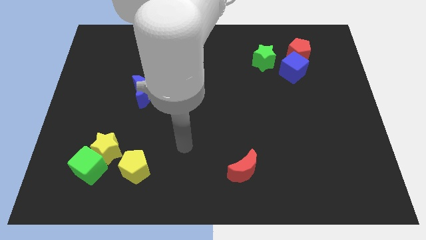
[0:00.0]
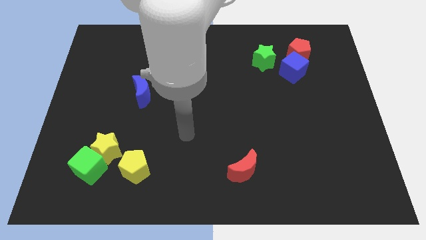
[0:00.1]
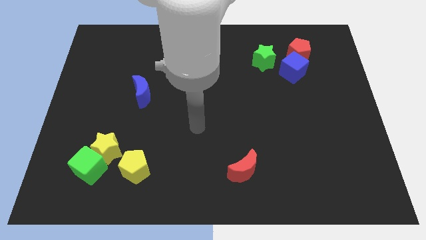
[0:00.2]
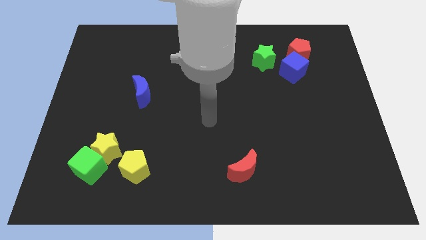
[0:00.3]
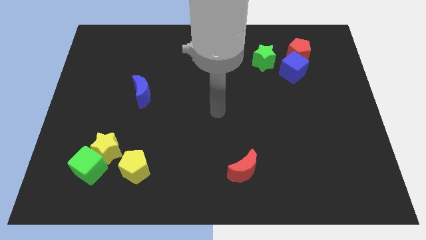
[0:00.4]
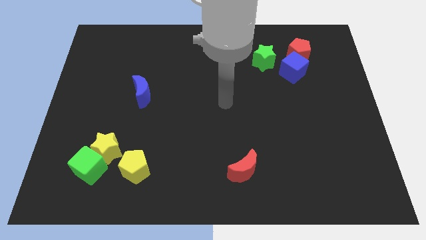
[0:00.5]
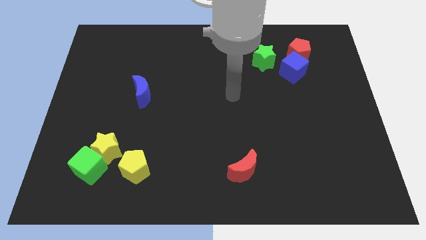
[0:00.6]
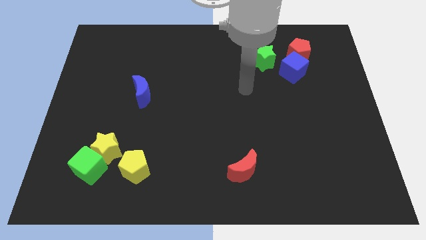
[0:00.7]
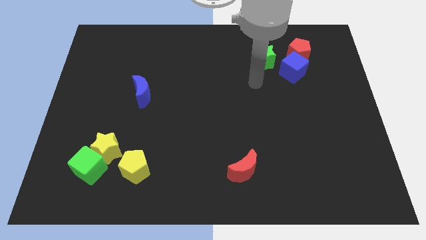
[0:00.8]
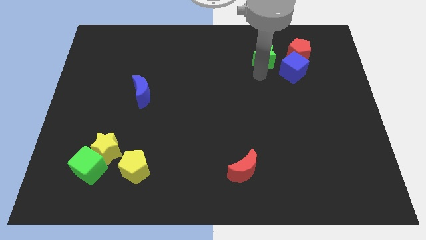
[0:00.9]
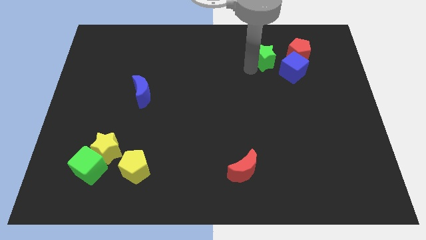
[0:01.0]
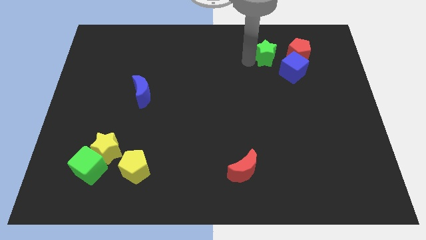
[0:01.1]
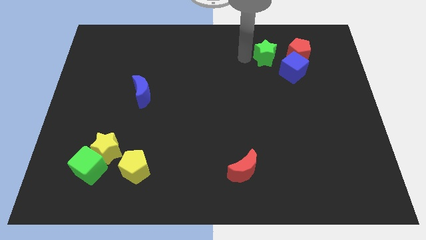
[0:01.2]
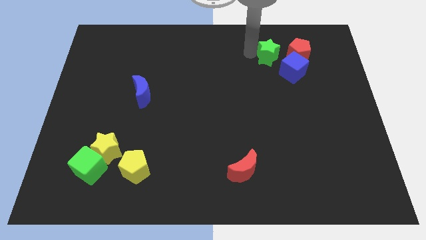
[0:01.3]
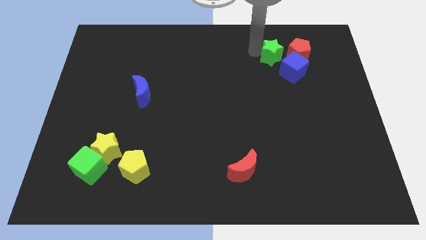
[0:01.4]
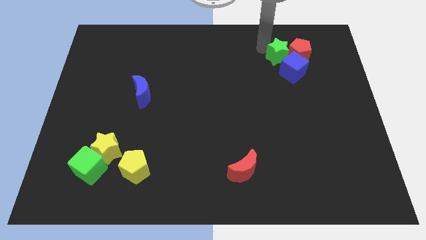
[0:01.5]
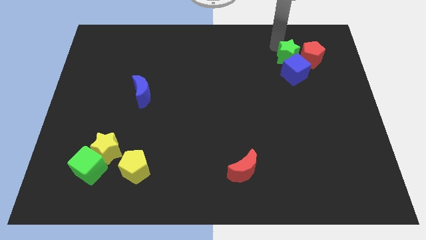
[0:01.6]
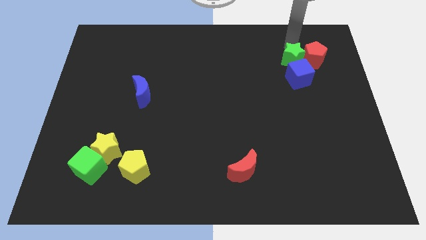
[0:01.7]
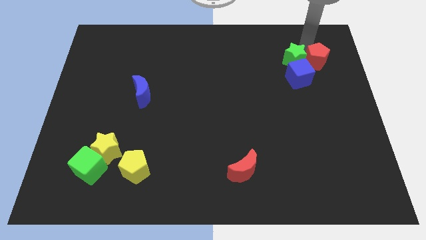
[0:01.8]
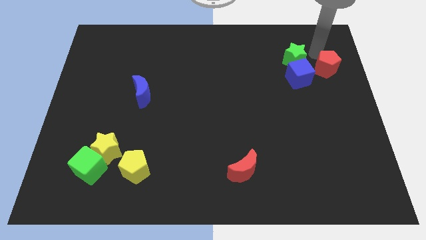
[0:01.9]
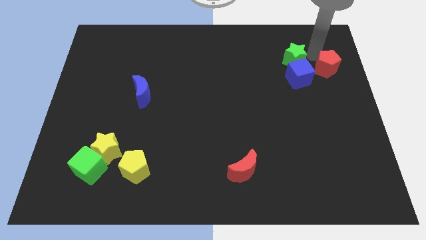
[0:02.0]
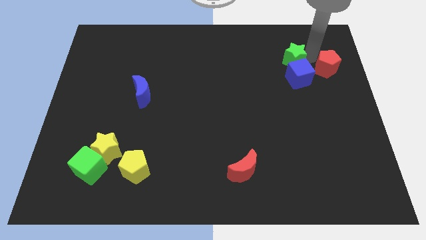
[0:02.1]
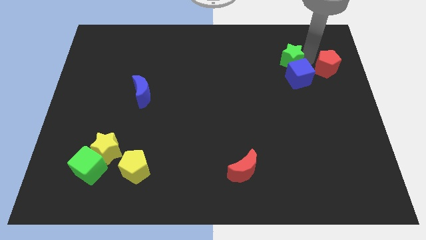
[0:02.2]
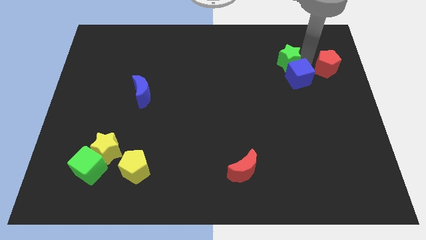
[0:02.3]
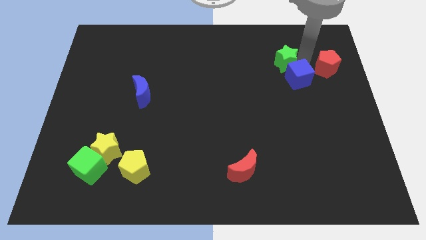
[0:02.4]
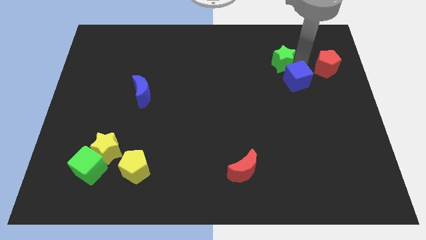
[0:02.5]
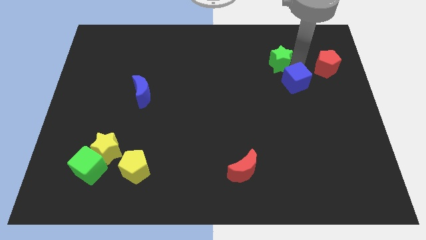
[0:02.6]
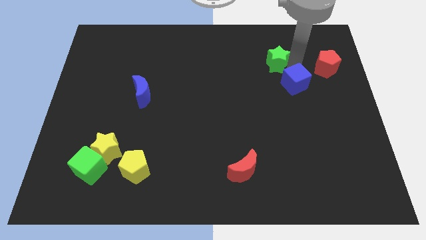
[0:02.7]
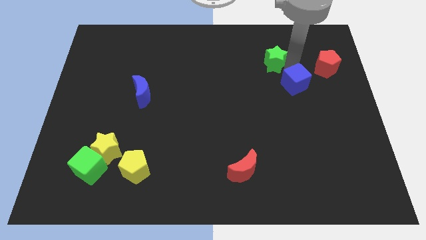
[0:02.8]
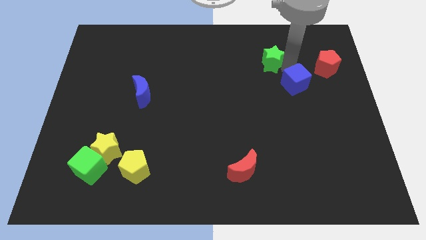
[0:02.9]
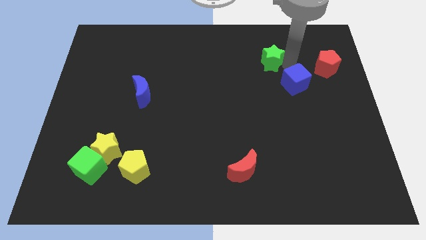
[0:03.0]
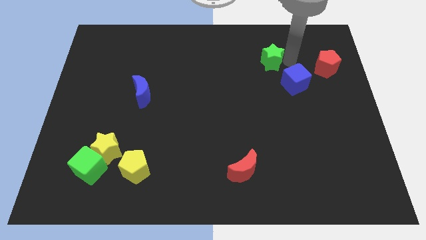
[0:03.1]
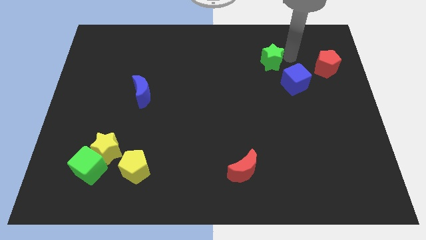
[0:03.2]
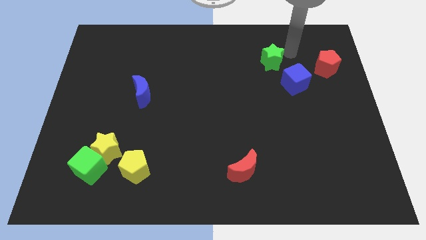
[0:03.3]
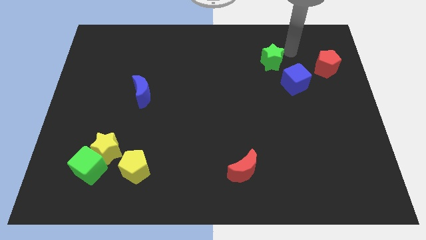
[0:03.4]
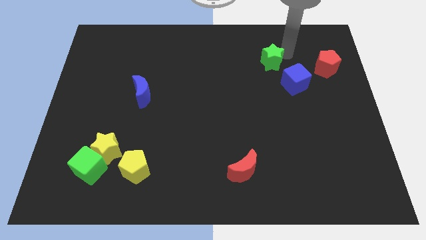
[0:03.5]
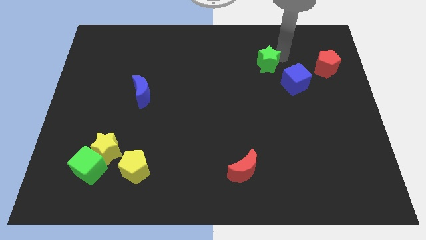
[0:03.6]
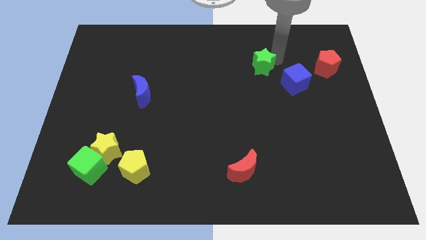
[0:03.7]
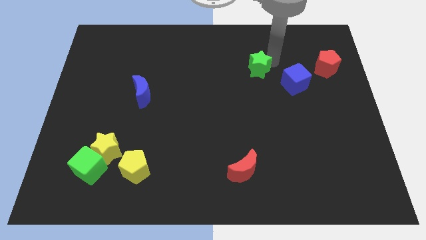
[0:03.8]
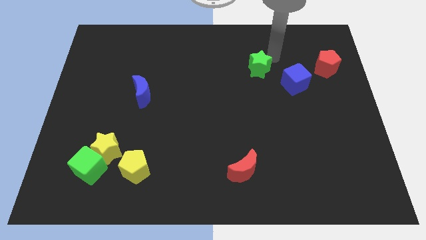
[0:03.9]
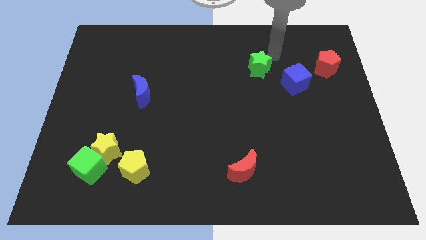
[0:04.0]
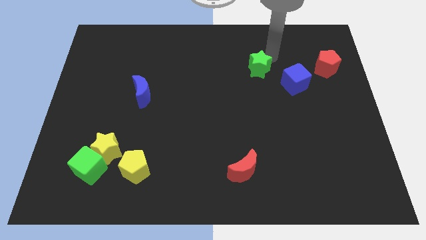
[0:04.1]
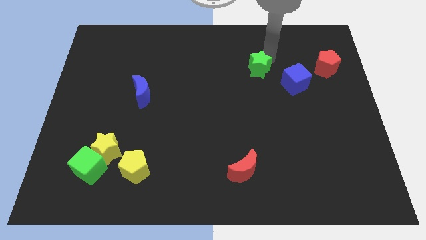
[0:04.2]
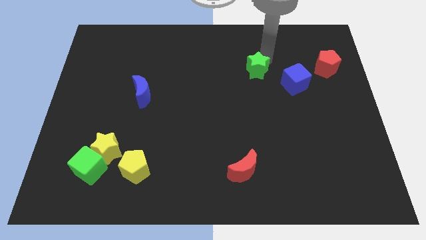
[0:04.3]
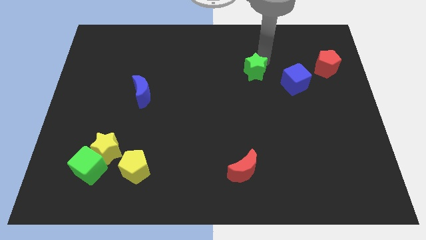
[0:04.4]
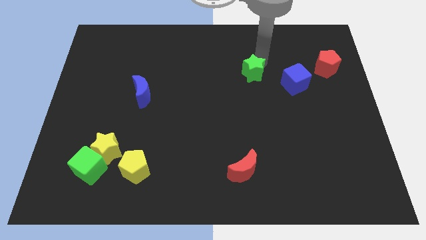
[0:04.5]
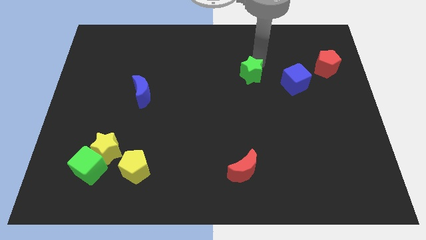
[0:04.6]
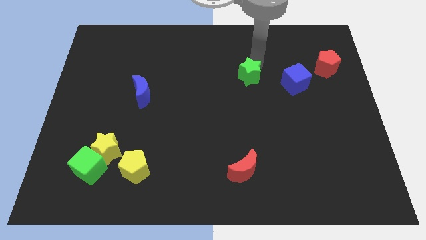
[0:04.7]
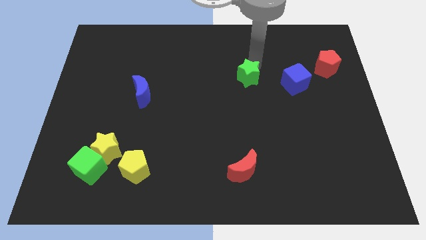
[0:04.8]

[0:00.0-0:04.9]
slightly push the green star downwards and to the left

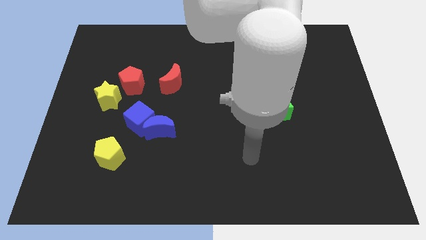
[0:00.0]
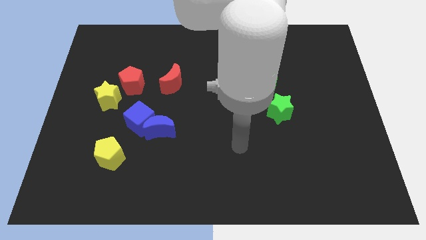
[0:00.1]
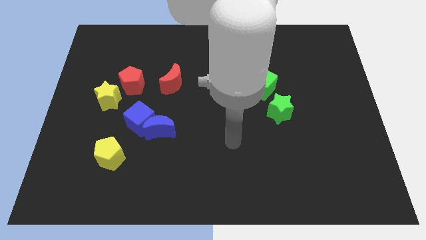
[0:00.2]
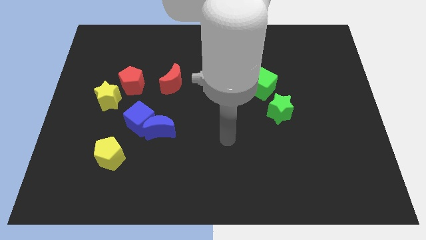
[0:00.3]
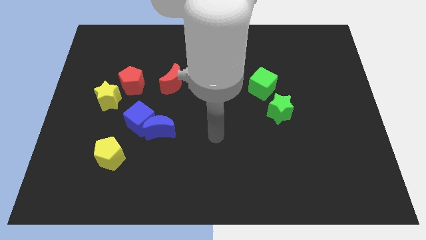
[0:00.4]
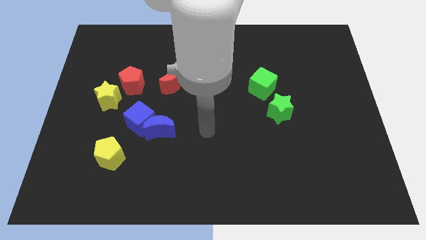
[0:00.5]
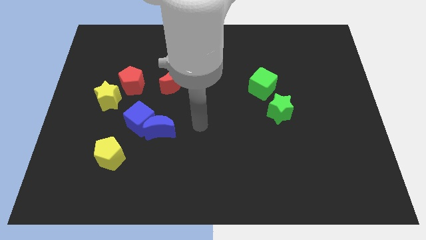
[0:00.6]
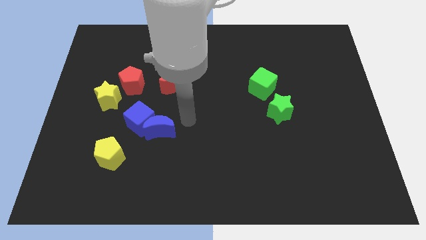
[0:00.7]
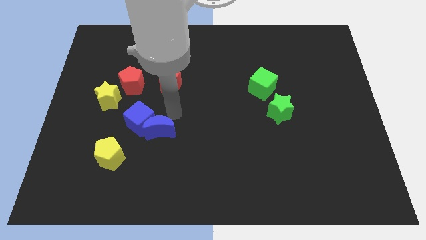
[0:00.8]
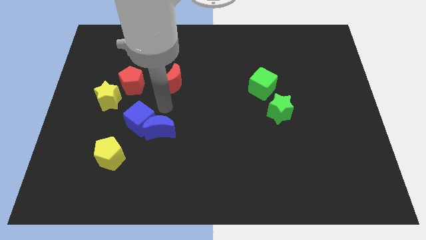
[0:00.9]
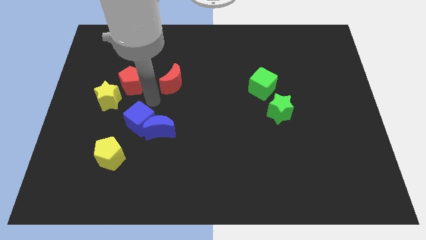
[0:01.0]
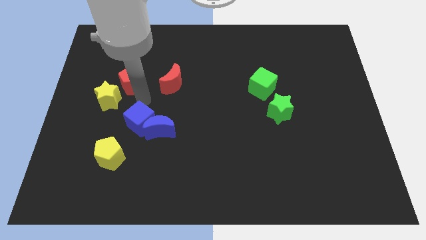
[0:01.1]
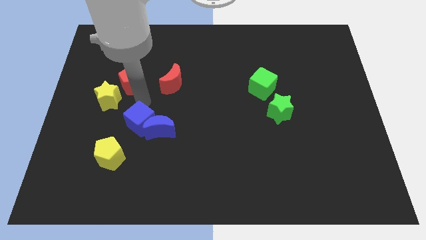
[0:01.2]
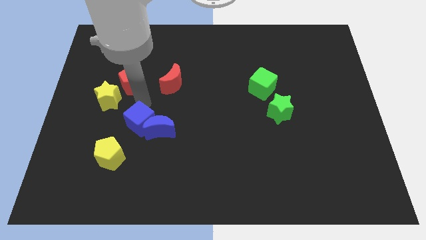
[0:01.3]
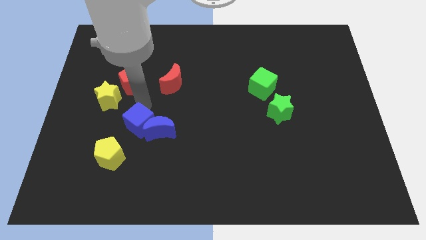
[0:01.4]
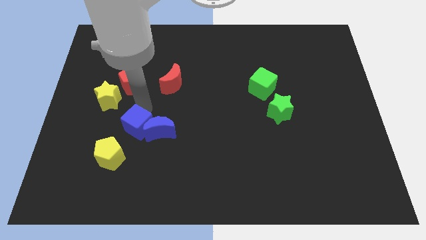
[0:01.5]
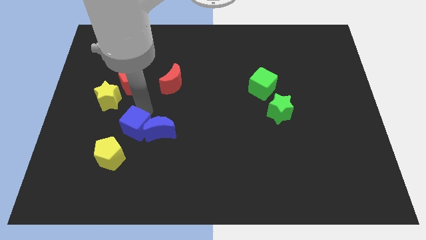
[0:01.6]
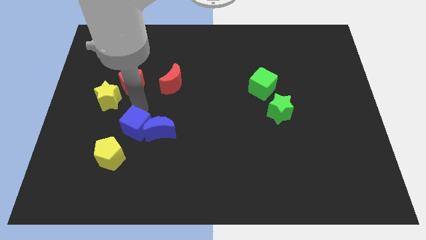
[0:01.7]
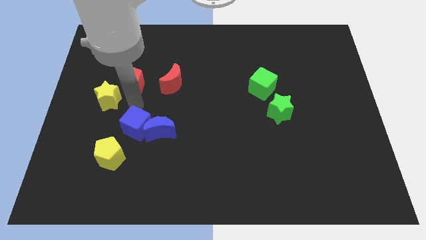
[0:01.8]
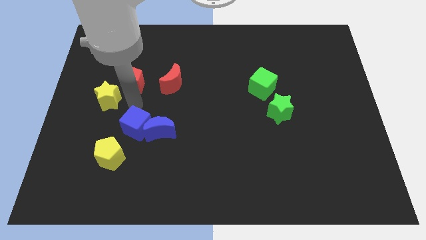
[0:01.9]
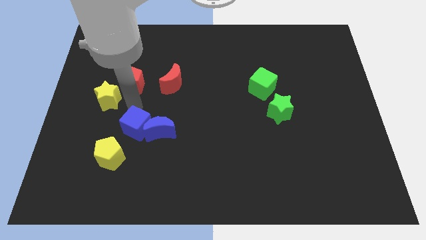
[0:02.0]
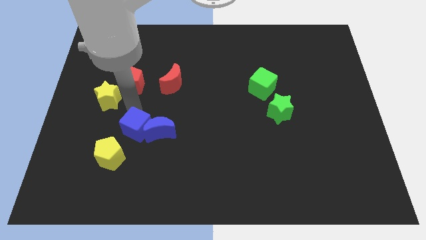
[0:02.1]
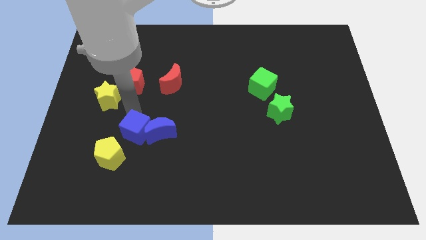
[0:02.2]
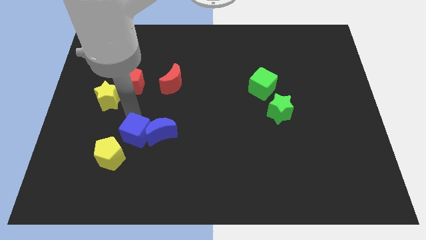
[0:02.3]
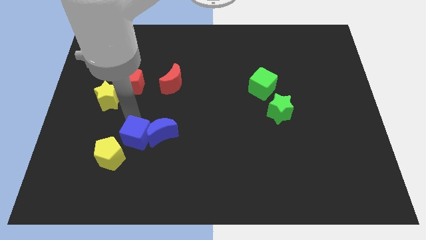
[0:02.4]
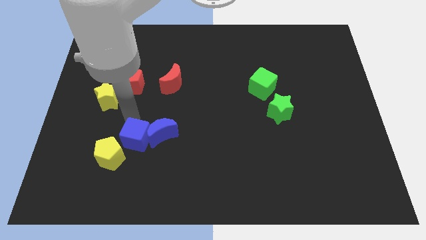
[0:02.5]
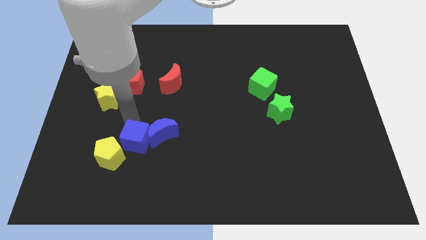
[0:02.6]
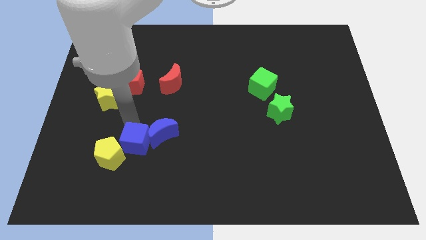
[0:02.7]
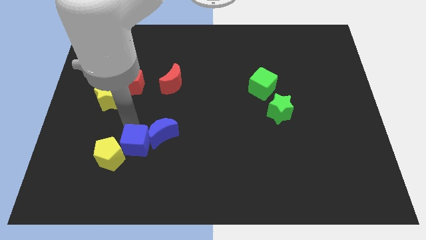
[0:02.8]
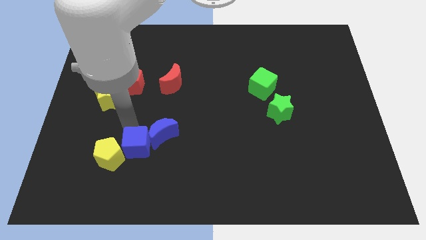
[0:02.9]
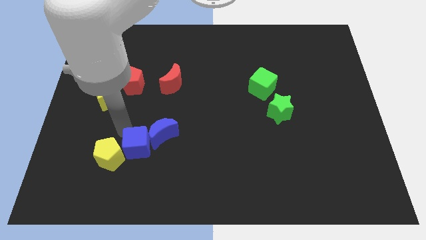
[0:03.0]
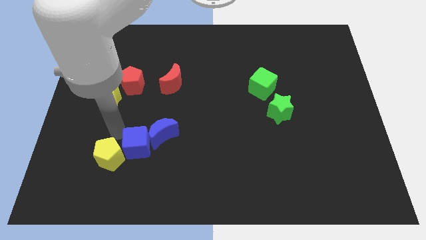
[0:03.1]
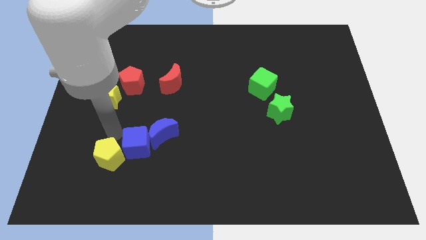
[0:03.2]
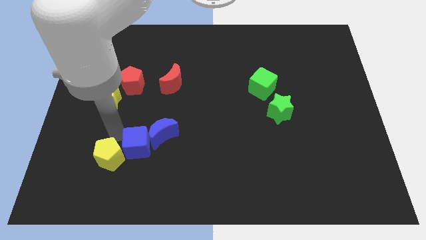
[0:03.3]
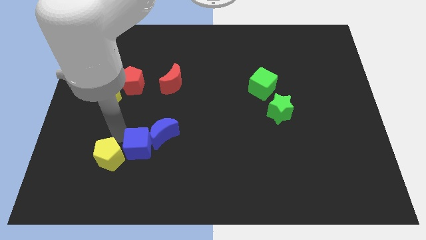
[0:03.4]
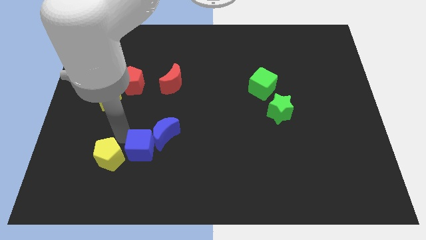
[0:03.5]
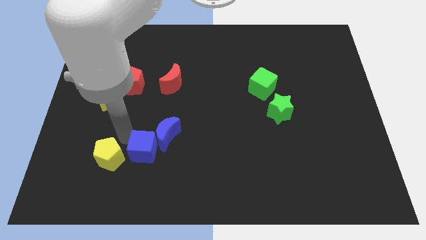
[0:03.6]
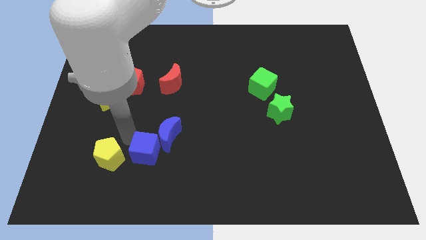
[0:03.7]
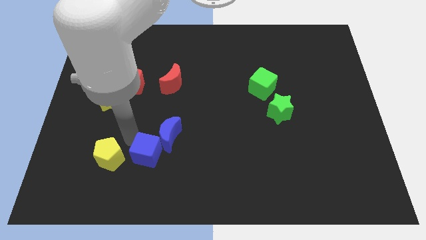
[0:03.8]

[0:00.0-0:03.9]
push the blue cube a bit down and right diagonally
